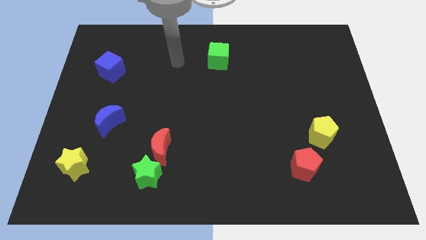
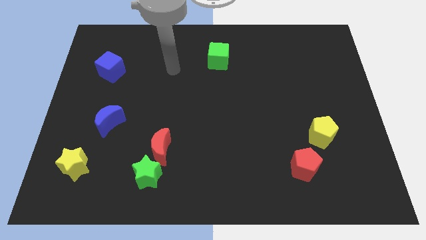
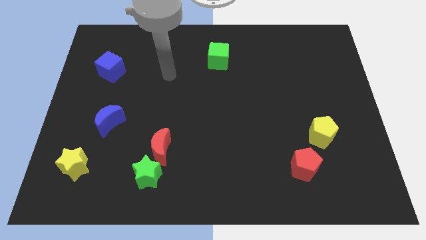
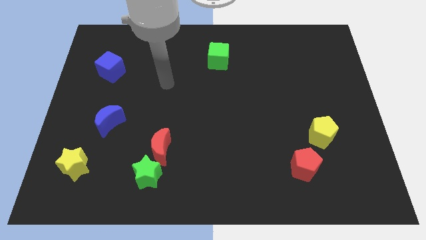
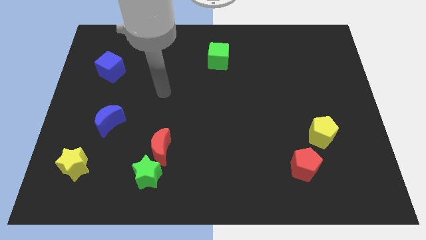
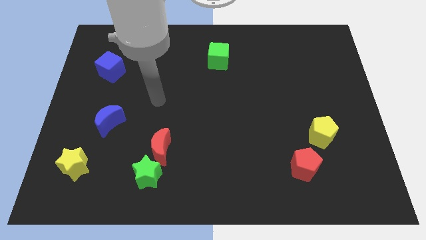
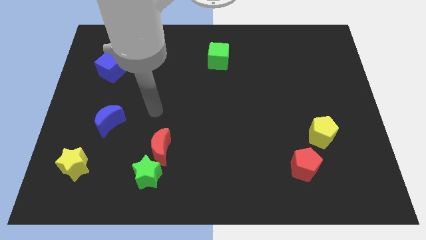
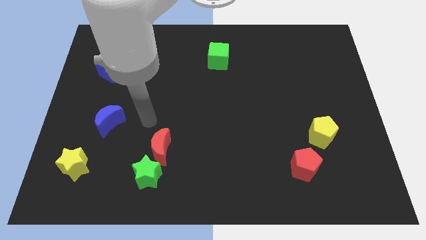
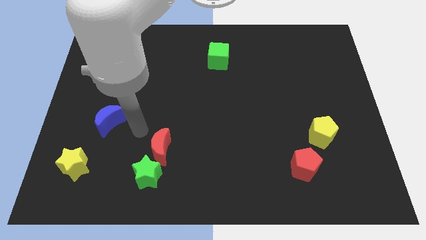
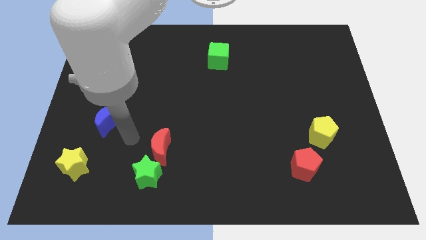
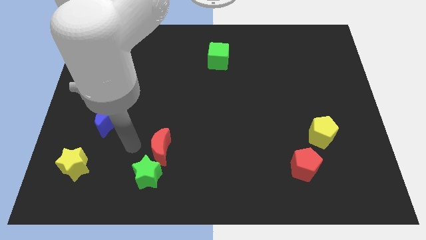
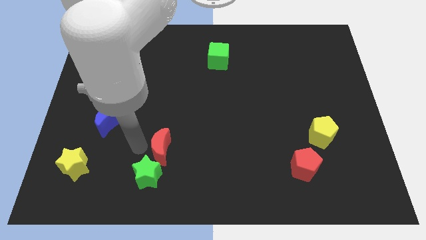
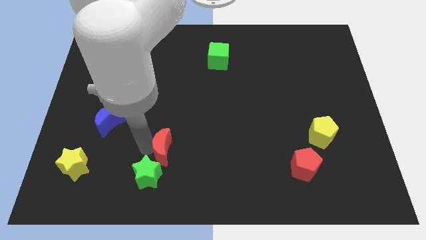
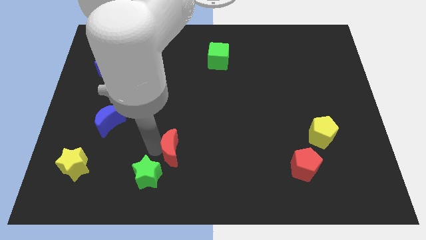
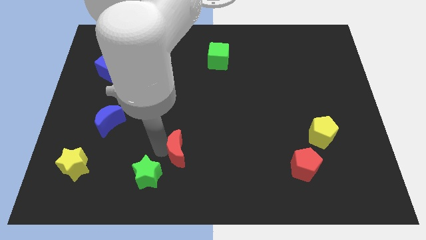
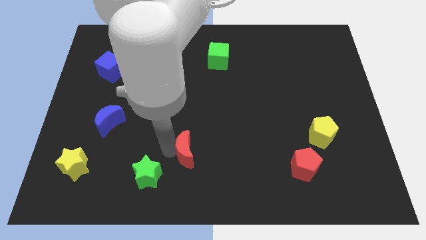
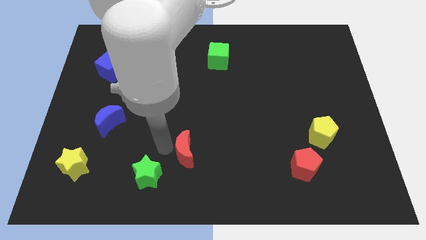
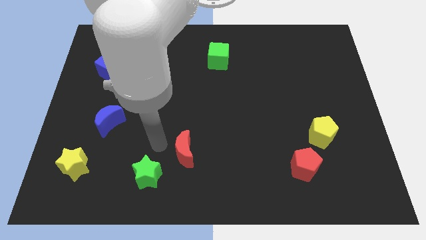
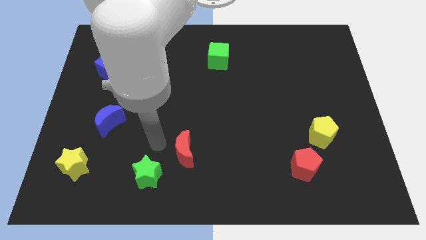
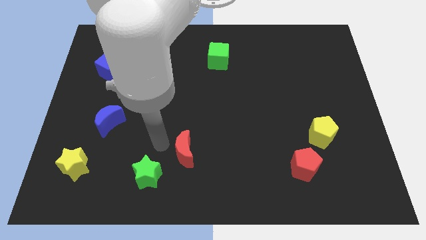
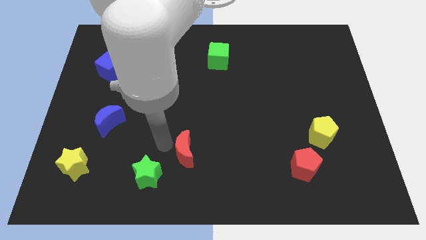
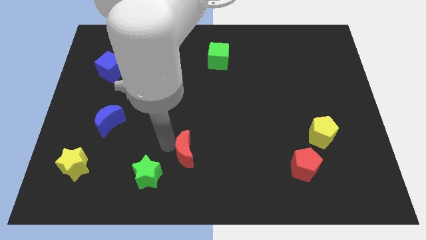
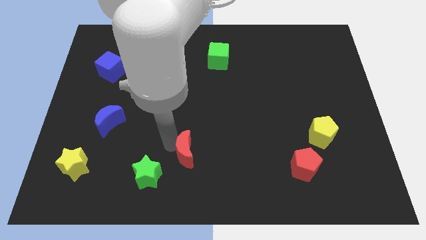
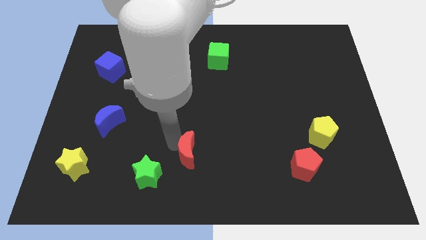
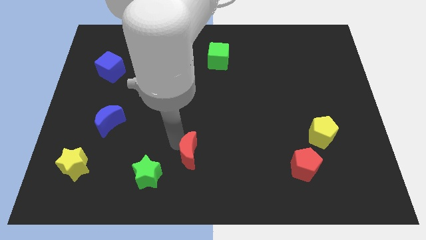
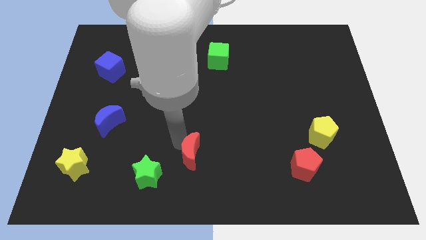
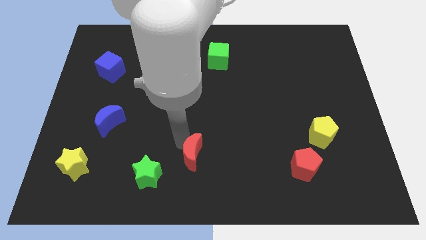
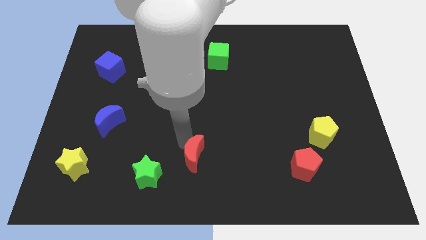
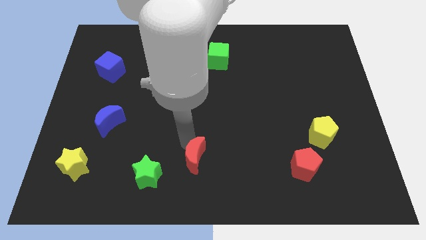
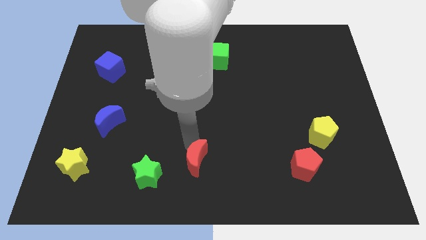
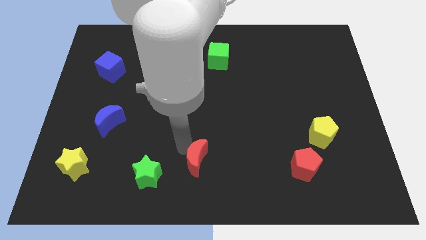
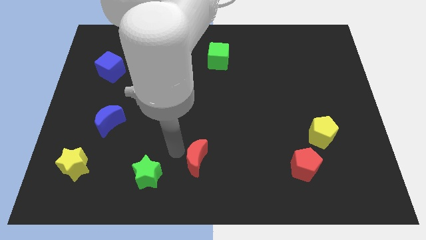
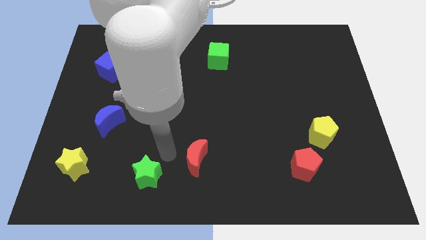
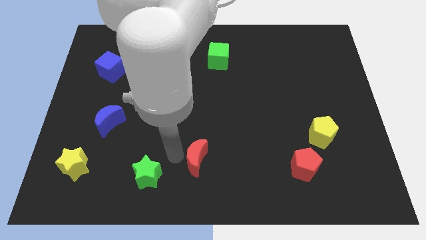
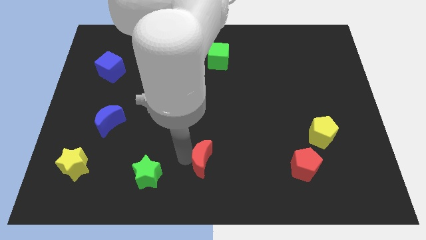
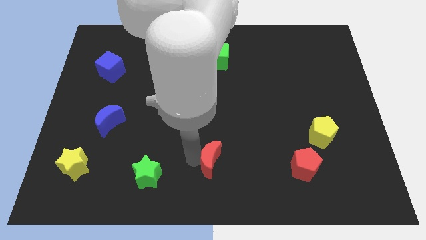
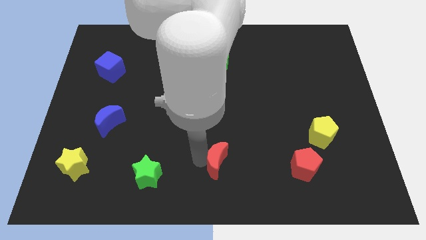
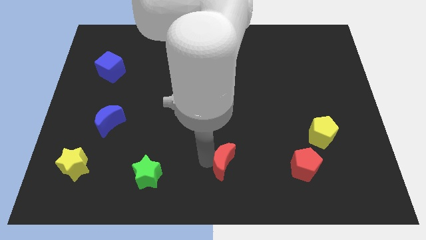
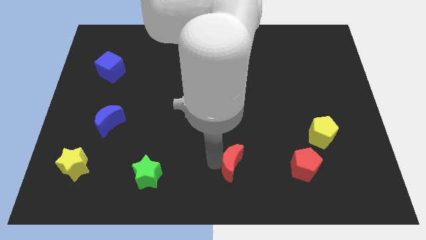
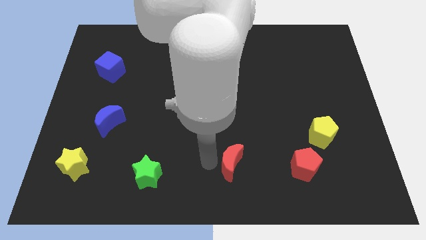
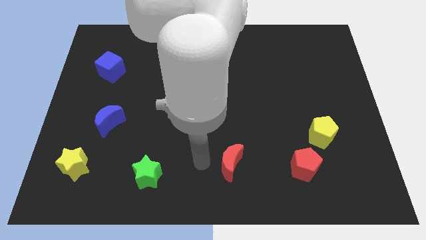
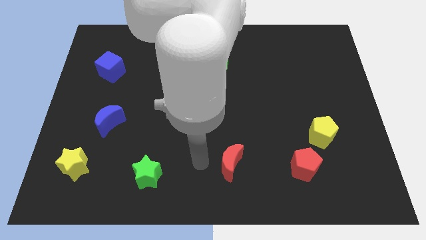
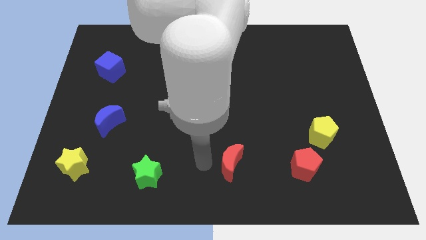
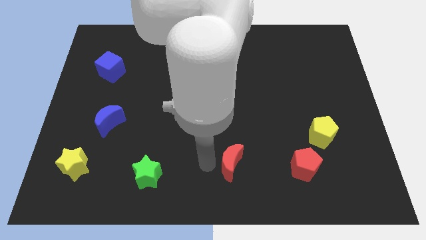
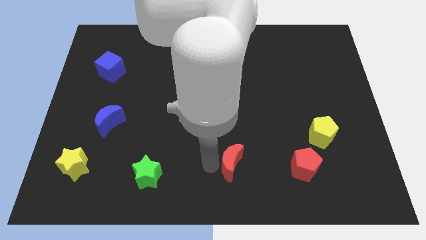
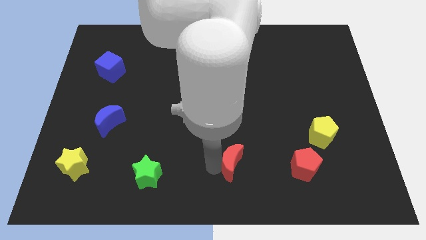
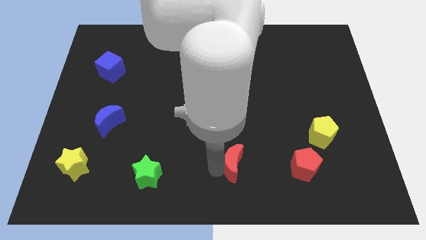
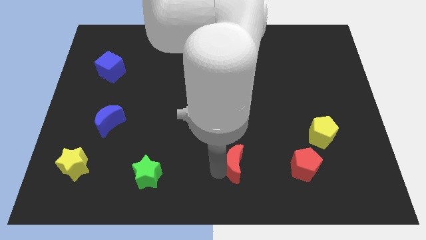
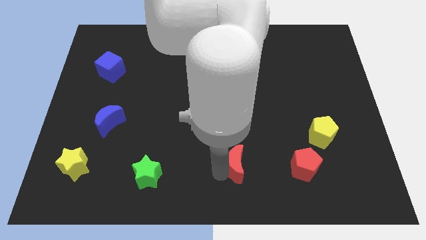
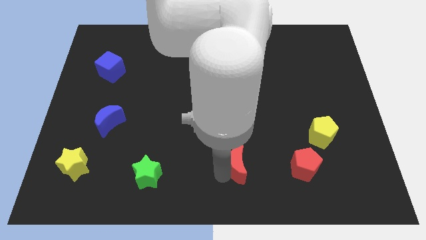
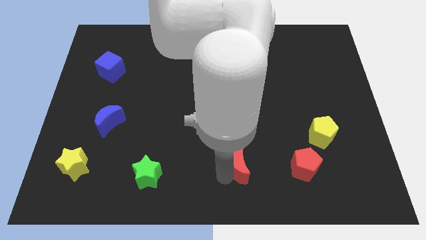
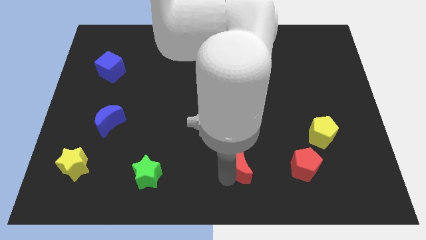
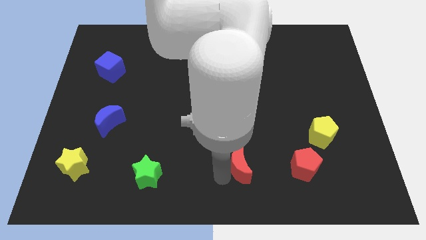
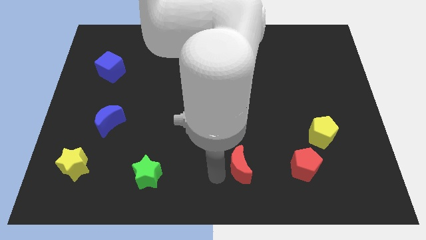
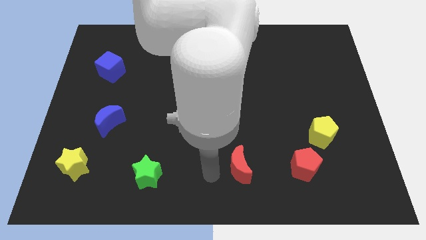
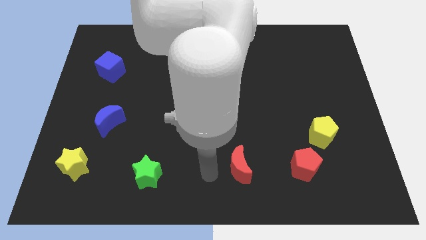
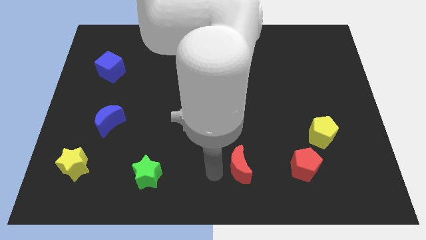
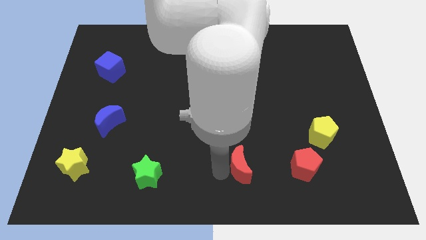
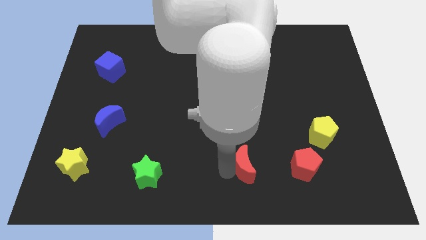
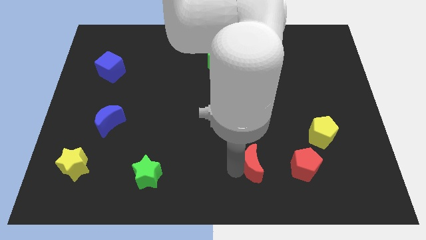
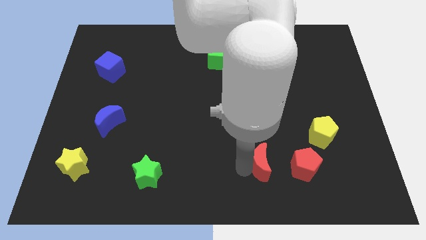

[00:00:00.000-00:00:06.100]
push the red moon right

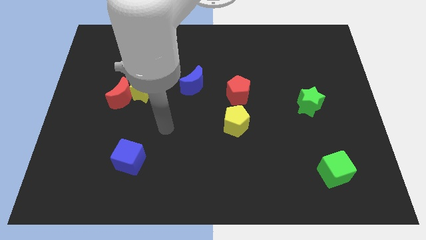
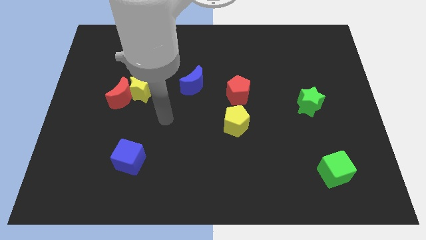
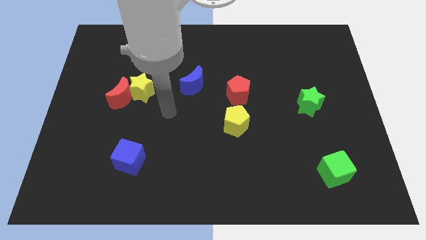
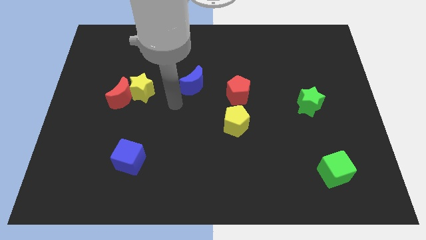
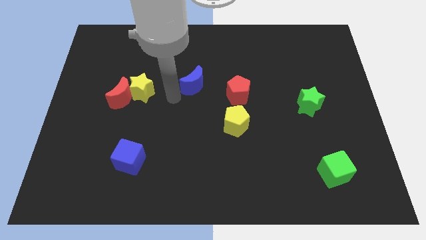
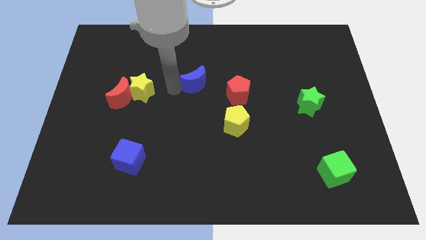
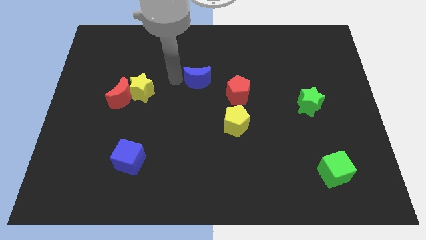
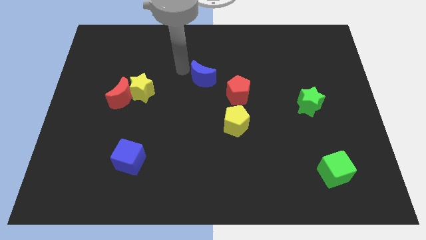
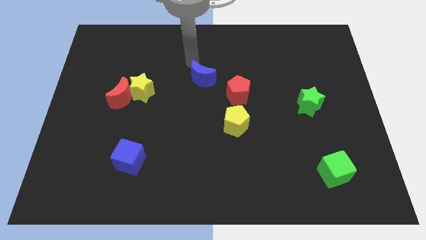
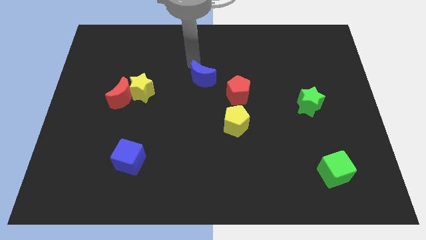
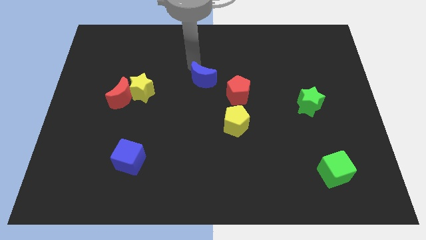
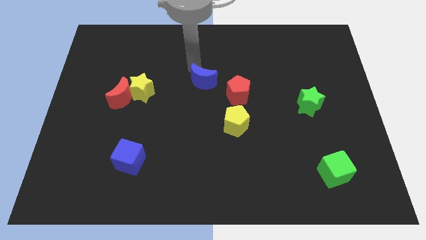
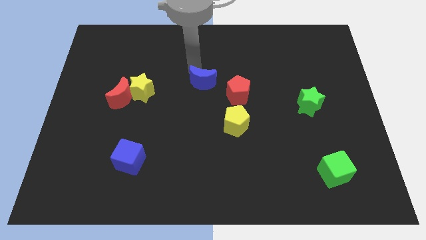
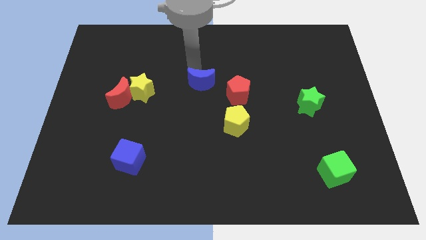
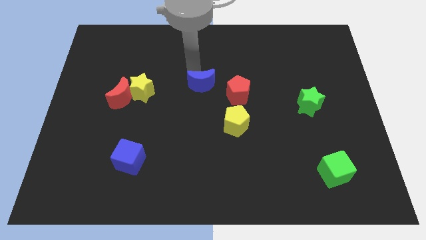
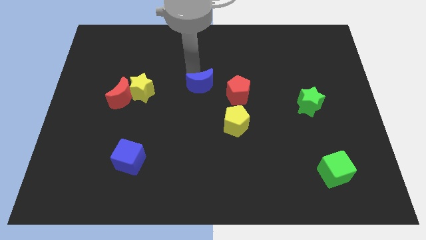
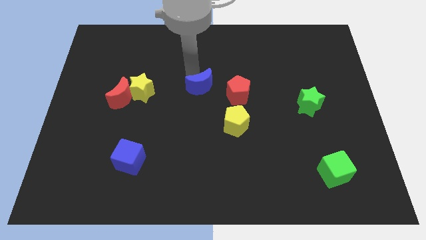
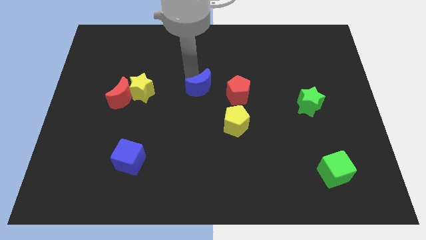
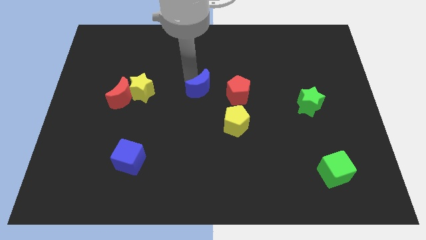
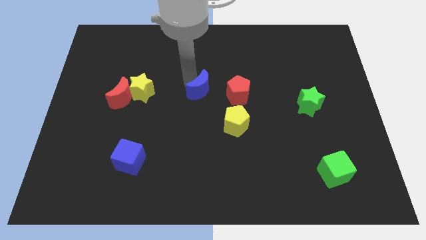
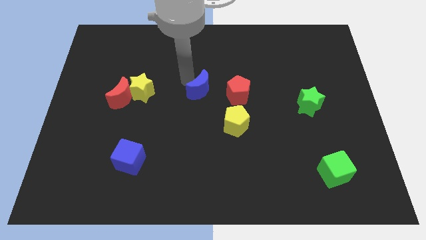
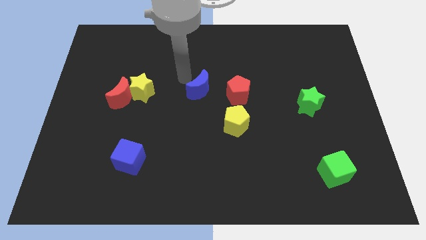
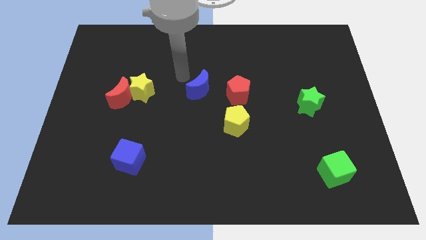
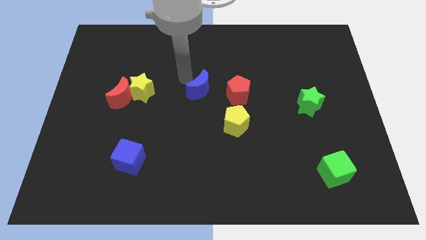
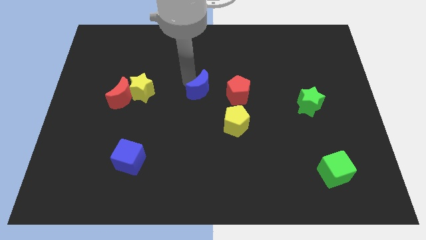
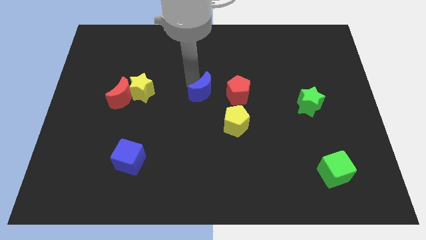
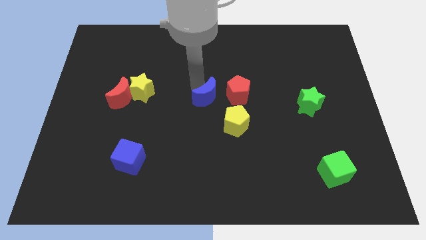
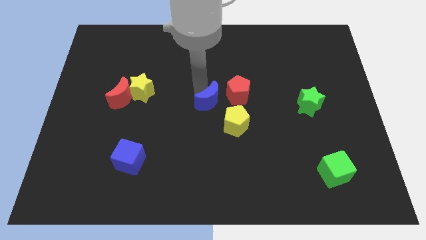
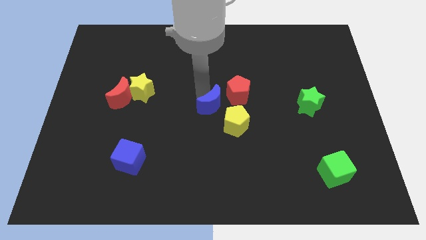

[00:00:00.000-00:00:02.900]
push the blue moon a little diagonally down and right
